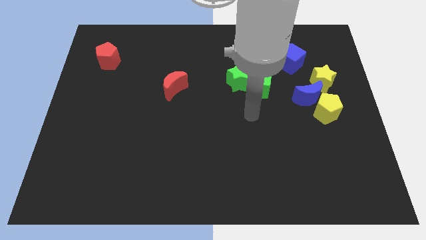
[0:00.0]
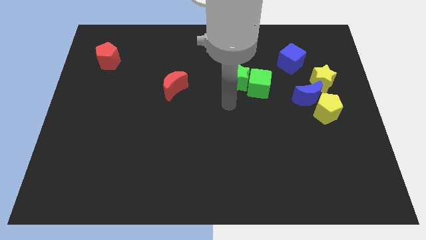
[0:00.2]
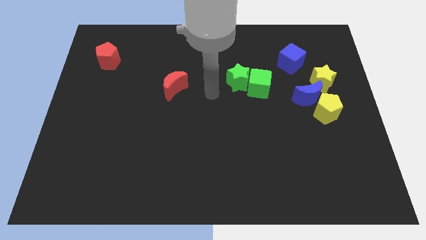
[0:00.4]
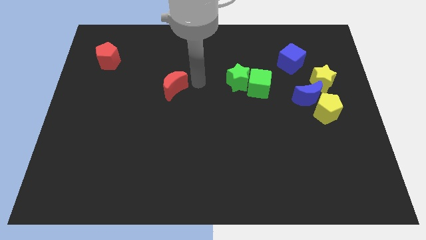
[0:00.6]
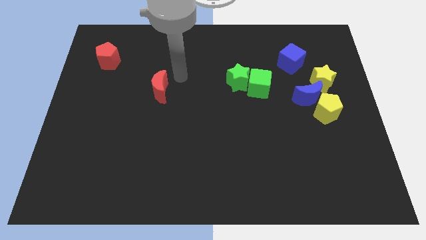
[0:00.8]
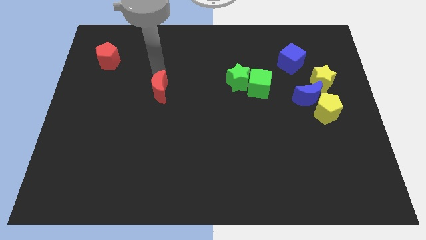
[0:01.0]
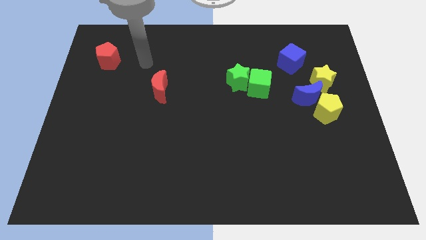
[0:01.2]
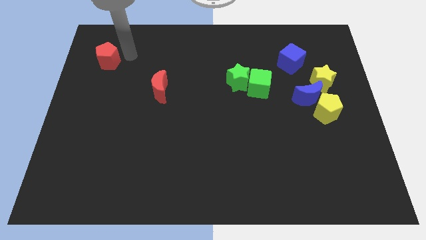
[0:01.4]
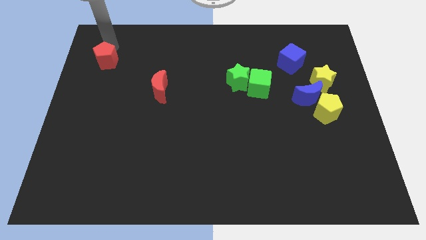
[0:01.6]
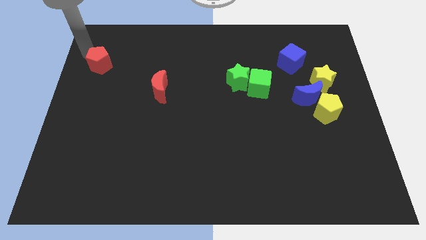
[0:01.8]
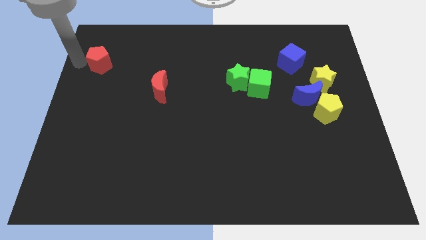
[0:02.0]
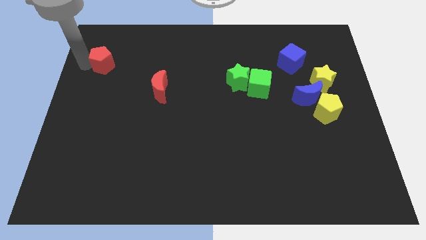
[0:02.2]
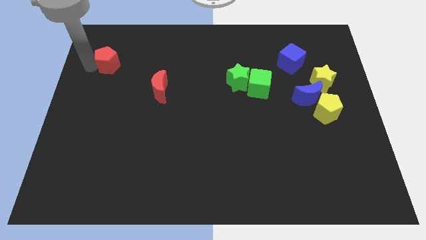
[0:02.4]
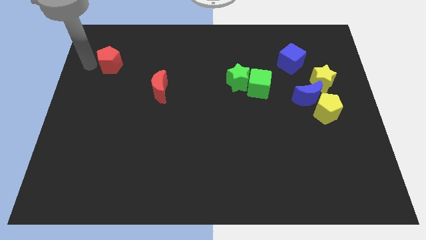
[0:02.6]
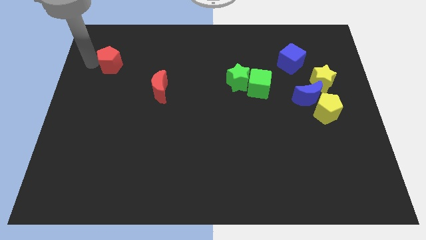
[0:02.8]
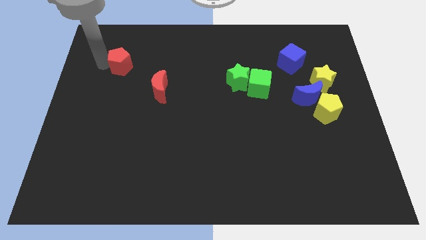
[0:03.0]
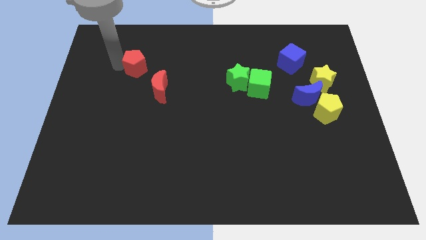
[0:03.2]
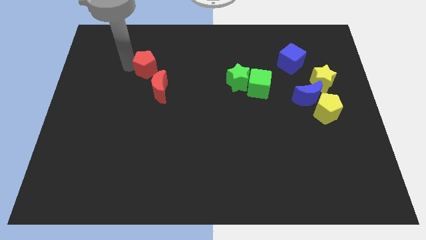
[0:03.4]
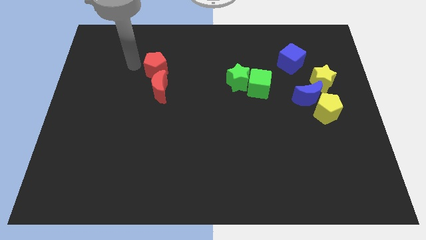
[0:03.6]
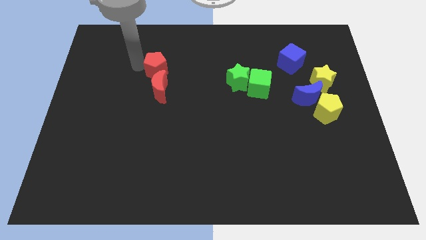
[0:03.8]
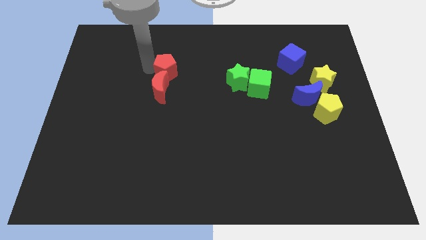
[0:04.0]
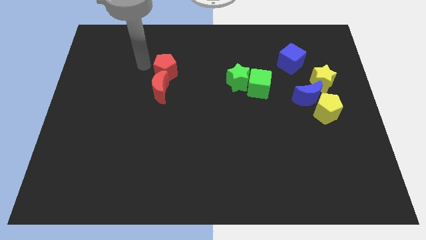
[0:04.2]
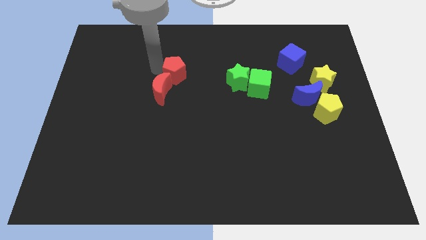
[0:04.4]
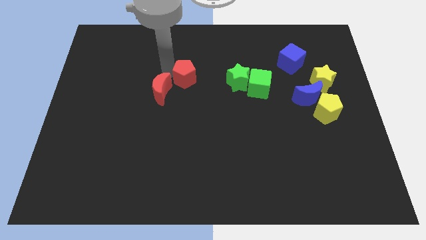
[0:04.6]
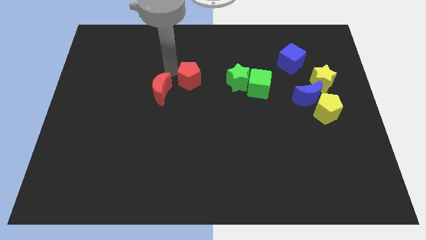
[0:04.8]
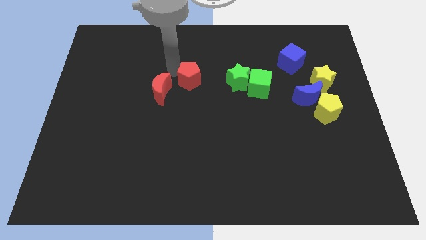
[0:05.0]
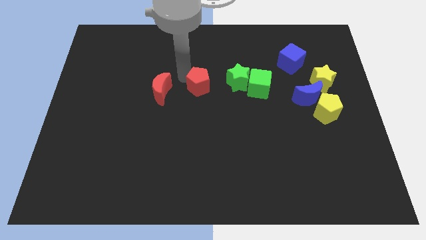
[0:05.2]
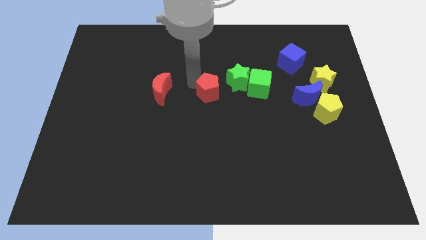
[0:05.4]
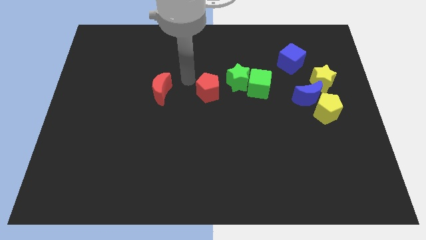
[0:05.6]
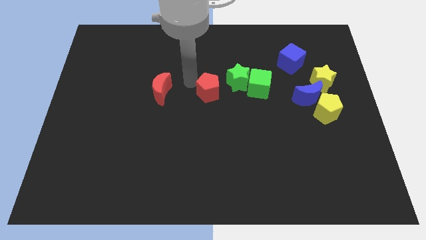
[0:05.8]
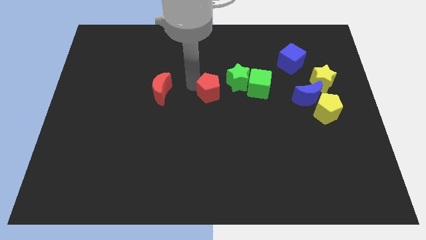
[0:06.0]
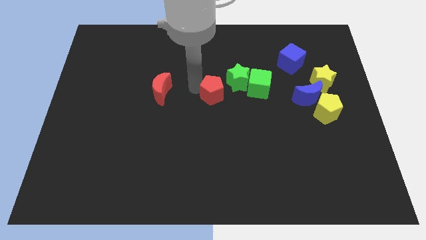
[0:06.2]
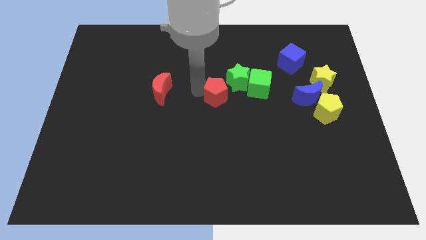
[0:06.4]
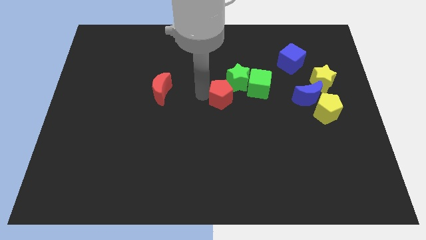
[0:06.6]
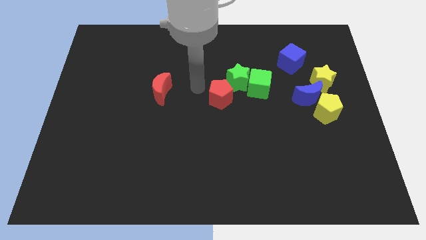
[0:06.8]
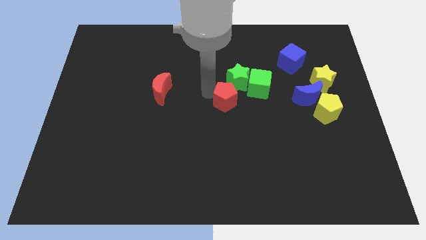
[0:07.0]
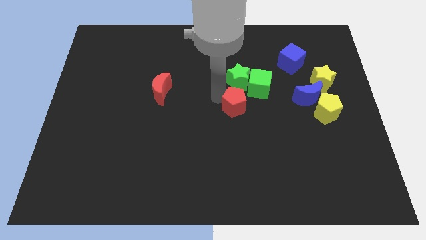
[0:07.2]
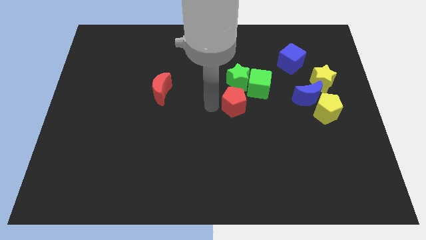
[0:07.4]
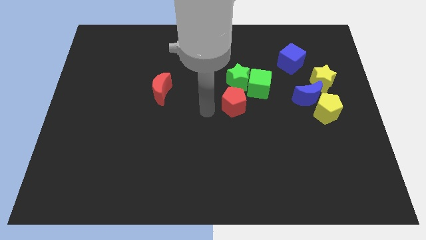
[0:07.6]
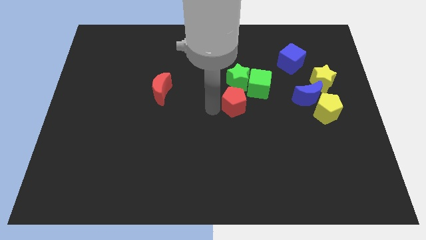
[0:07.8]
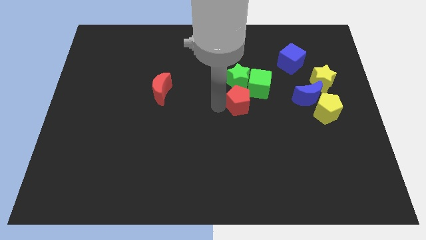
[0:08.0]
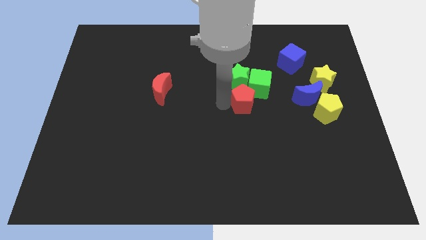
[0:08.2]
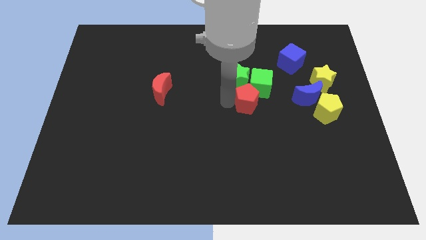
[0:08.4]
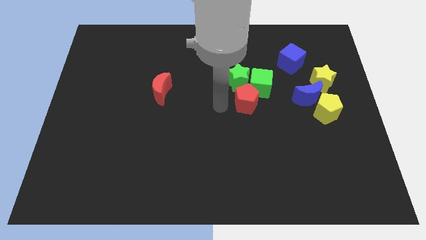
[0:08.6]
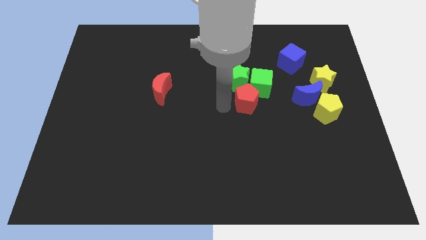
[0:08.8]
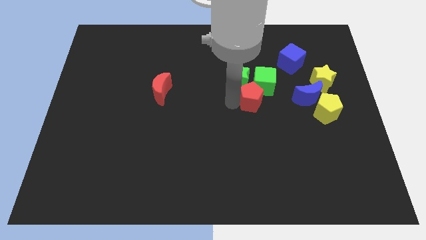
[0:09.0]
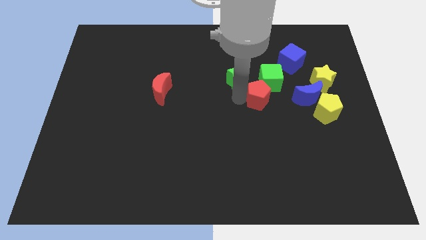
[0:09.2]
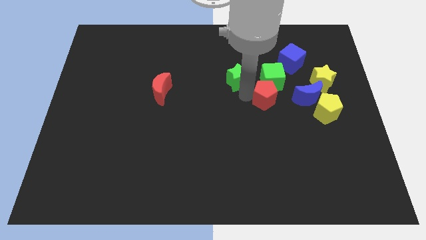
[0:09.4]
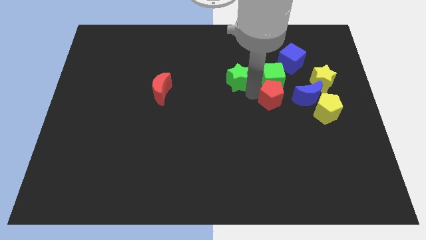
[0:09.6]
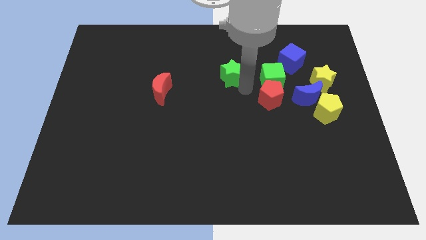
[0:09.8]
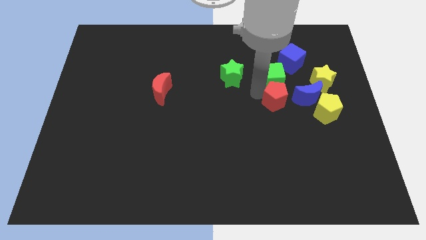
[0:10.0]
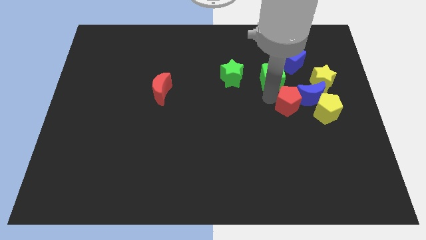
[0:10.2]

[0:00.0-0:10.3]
move the red pentagon to the bottom left side of the yellow star

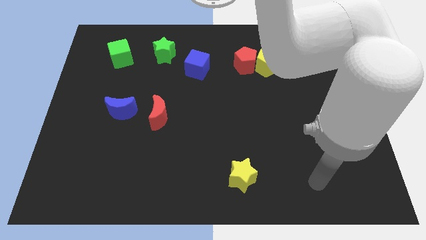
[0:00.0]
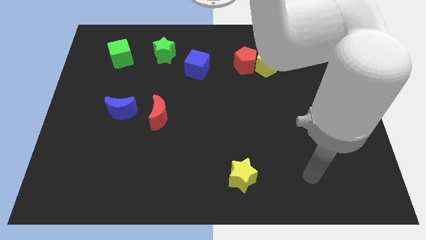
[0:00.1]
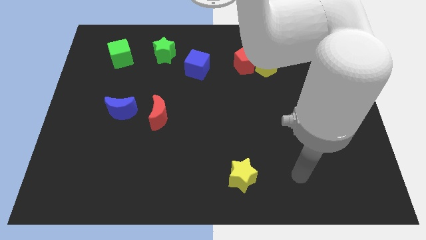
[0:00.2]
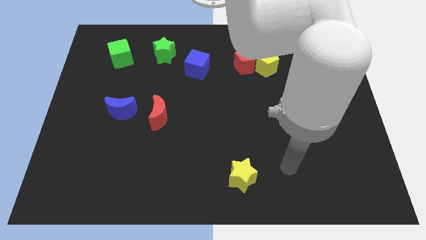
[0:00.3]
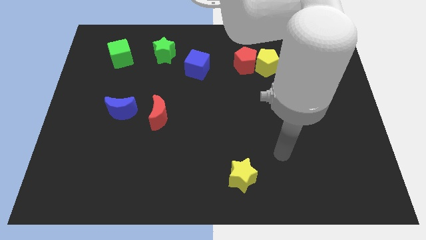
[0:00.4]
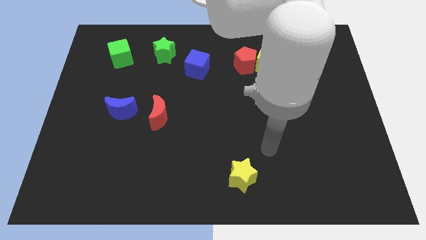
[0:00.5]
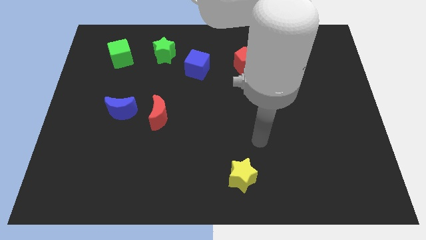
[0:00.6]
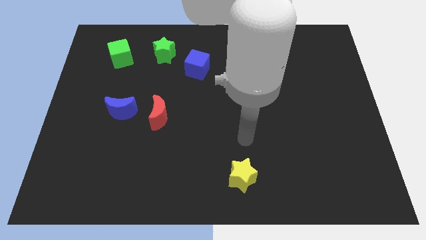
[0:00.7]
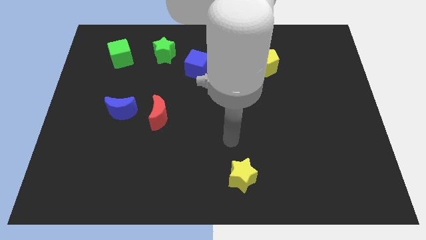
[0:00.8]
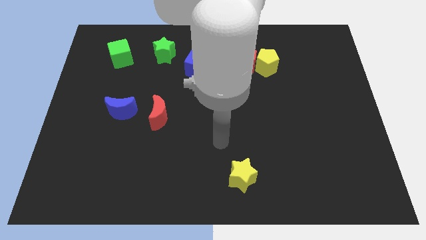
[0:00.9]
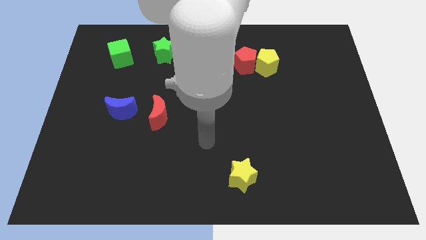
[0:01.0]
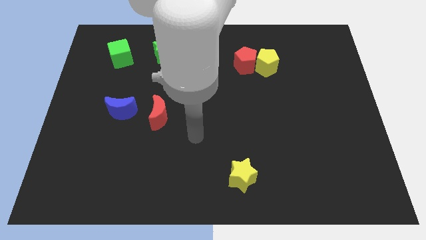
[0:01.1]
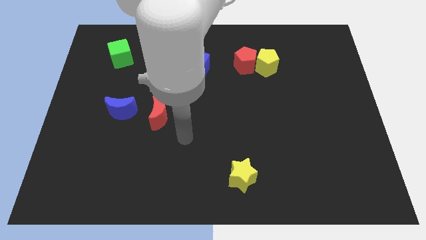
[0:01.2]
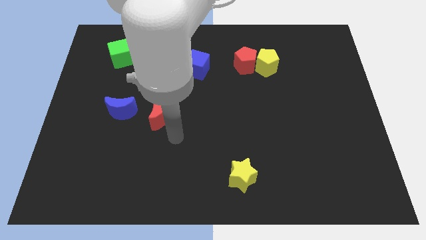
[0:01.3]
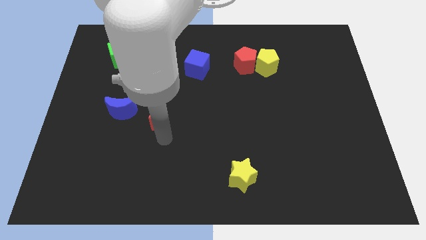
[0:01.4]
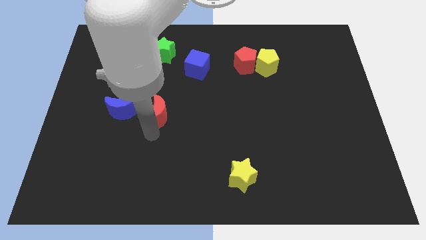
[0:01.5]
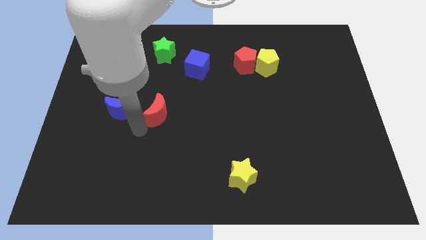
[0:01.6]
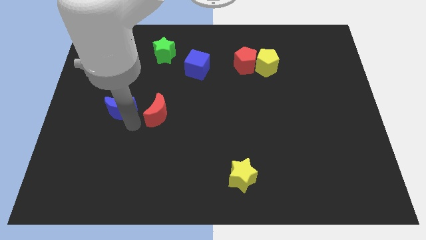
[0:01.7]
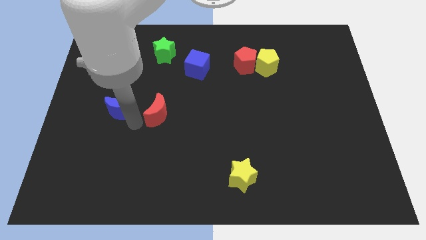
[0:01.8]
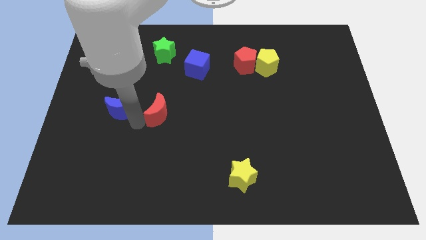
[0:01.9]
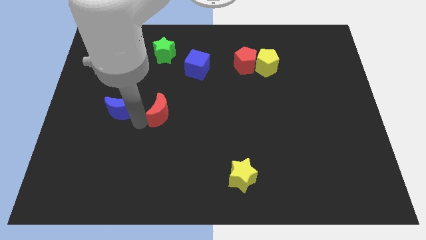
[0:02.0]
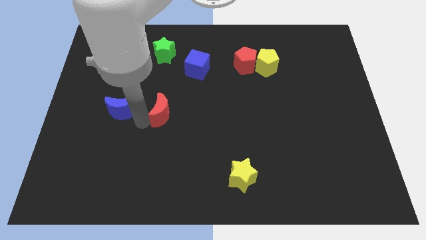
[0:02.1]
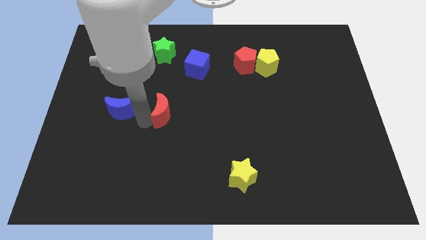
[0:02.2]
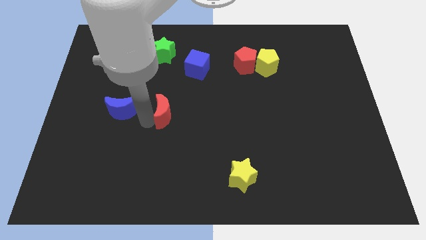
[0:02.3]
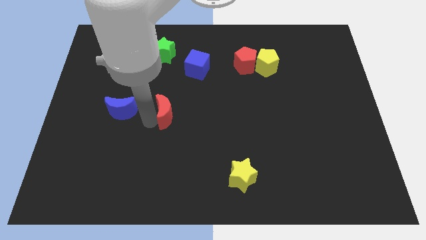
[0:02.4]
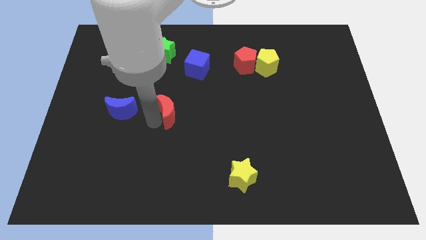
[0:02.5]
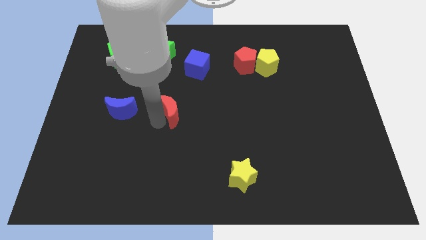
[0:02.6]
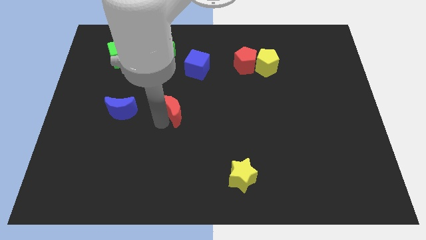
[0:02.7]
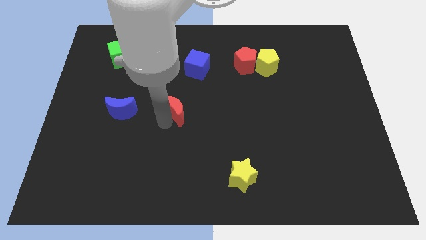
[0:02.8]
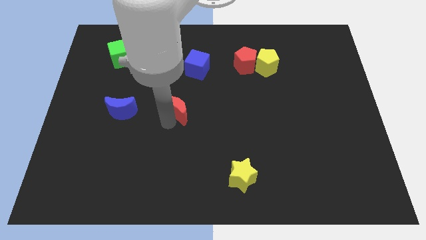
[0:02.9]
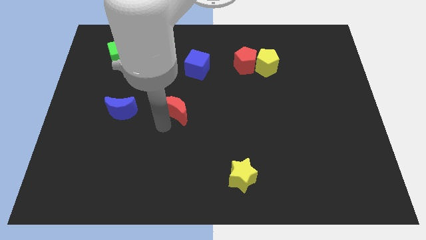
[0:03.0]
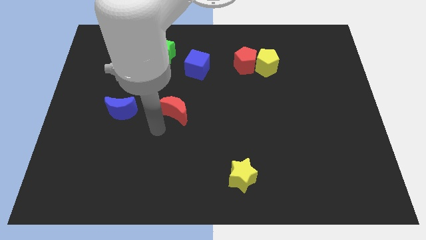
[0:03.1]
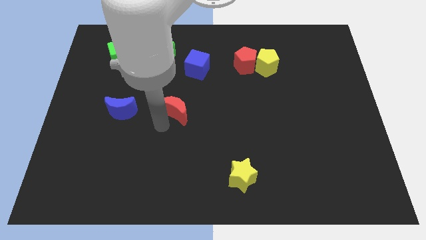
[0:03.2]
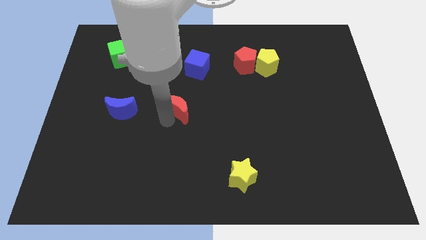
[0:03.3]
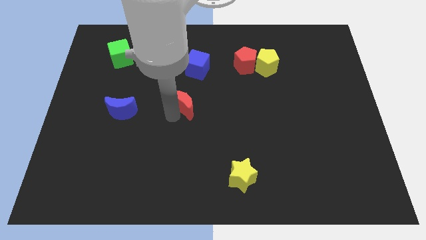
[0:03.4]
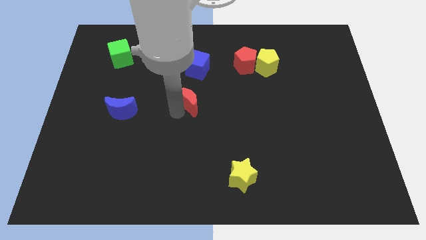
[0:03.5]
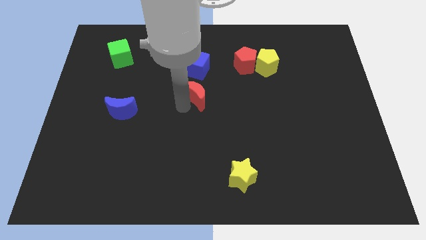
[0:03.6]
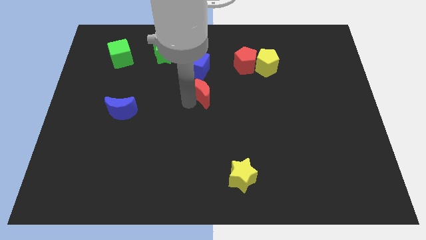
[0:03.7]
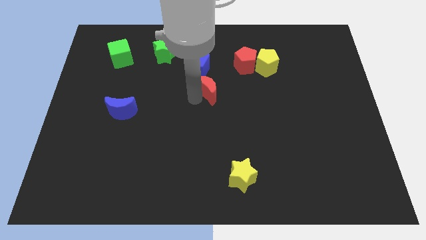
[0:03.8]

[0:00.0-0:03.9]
move the red moon to the bottom right of the blue cube
